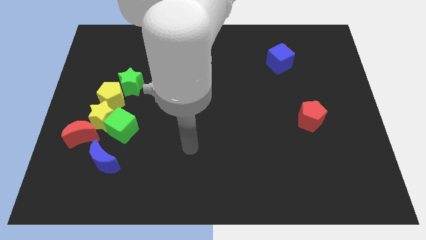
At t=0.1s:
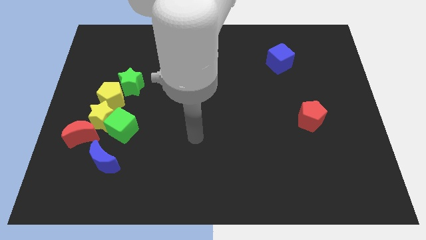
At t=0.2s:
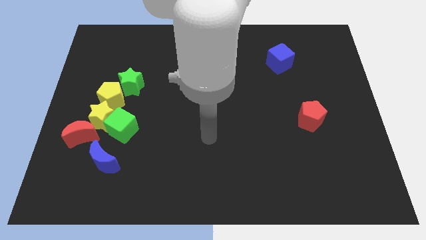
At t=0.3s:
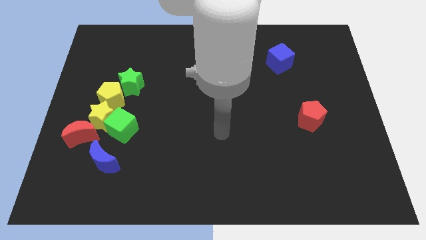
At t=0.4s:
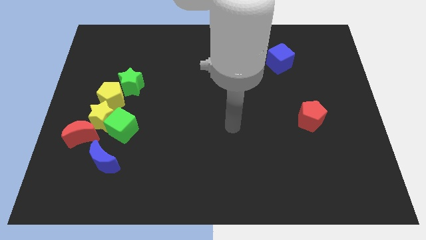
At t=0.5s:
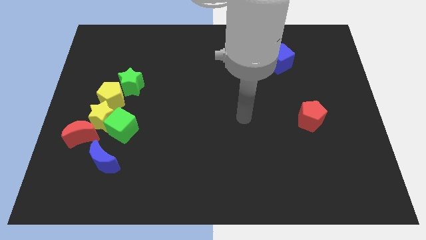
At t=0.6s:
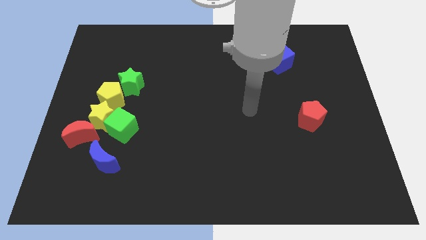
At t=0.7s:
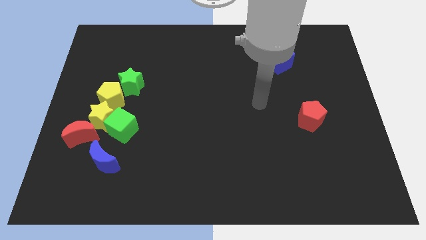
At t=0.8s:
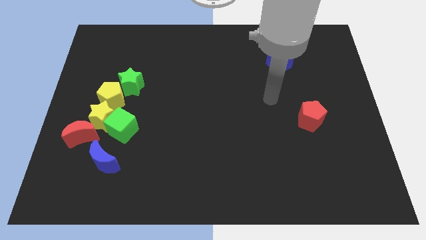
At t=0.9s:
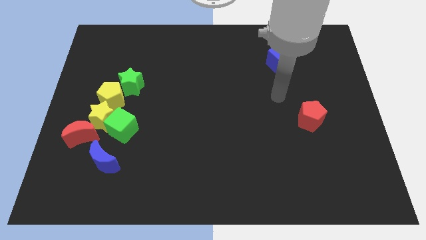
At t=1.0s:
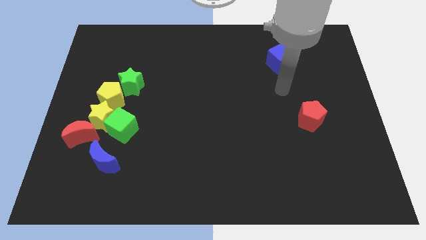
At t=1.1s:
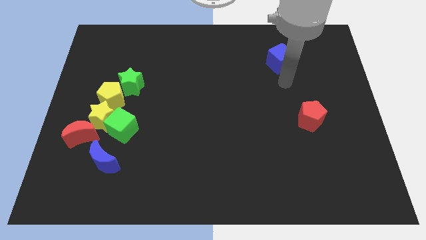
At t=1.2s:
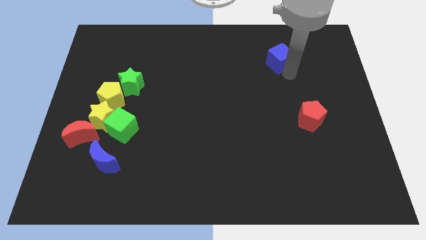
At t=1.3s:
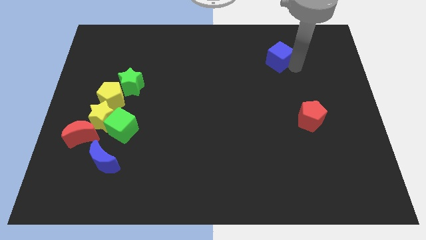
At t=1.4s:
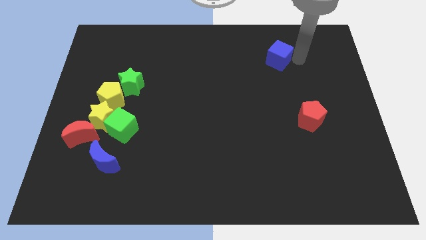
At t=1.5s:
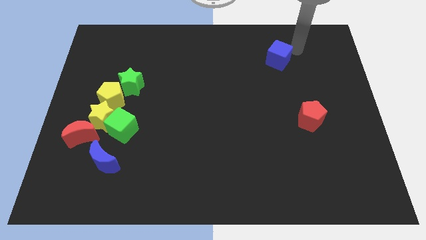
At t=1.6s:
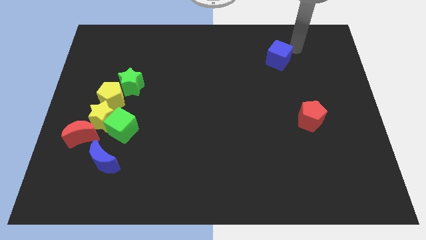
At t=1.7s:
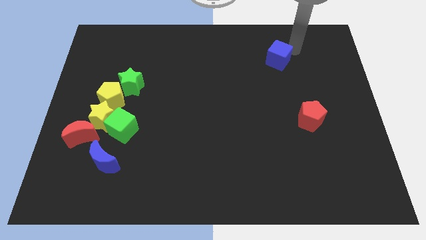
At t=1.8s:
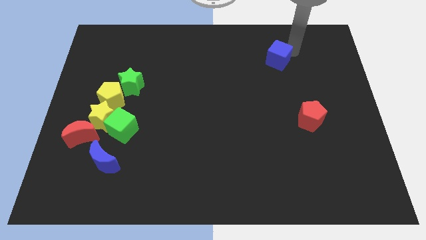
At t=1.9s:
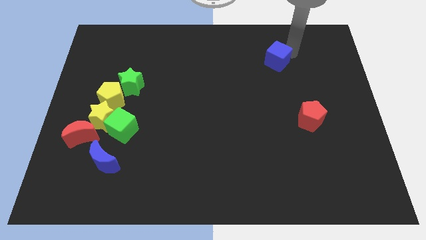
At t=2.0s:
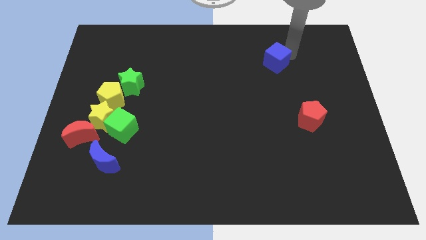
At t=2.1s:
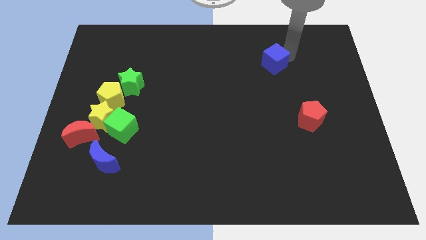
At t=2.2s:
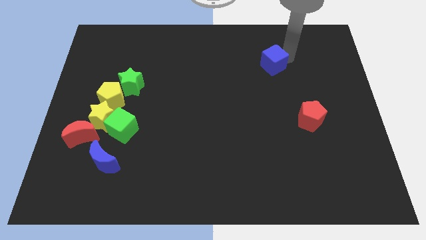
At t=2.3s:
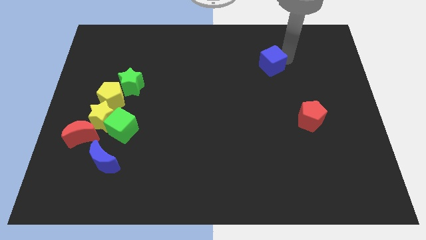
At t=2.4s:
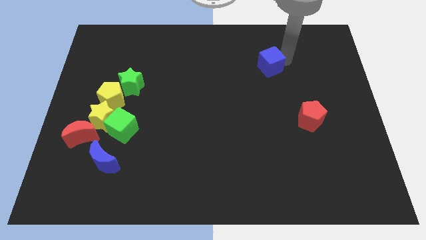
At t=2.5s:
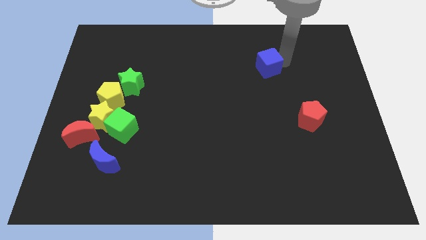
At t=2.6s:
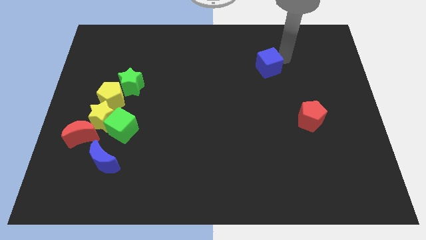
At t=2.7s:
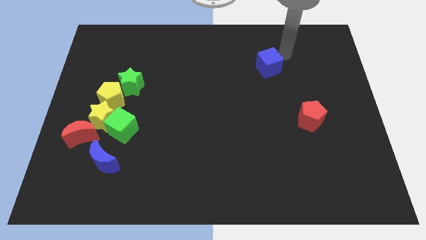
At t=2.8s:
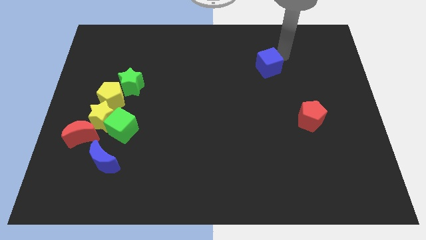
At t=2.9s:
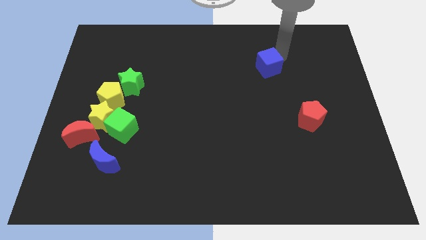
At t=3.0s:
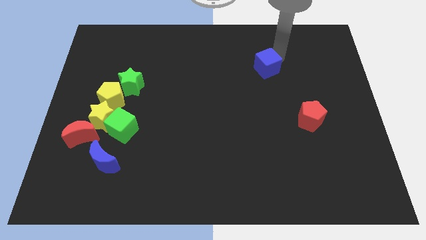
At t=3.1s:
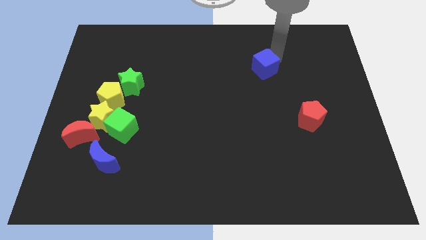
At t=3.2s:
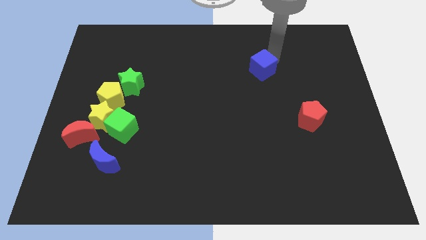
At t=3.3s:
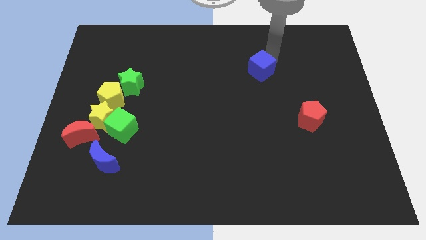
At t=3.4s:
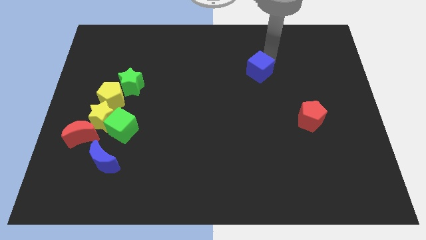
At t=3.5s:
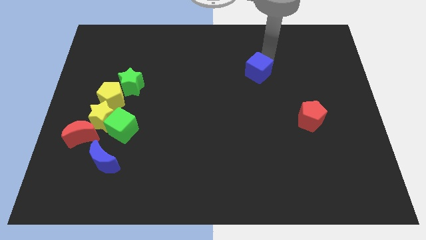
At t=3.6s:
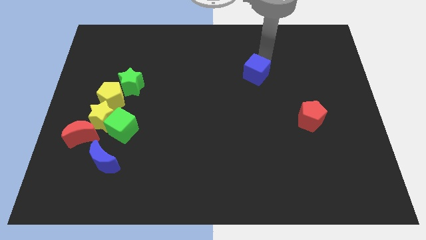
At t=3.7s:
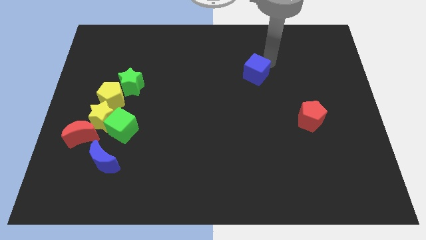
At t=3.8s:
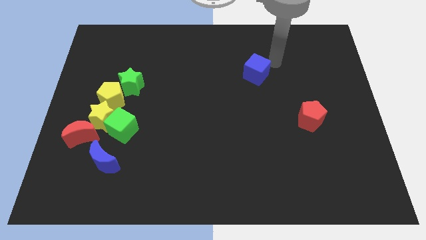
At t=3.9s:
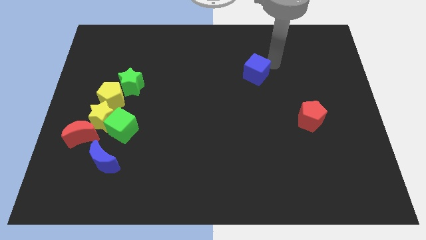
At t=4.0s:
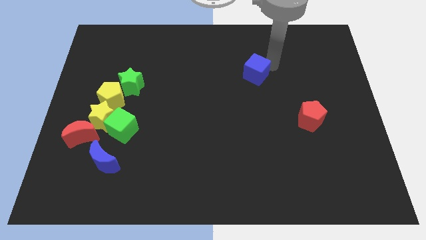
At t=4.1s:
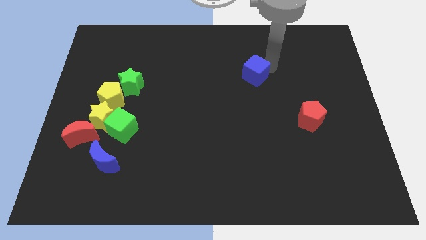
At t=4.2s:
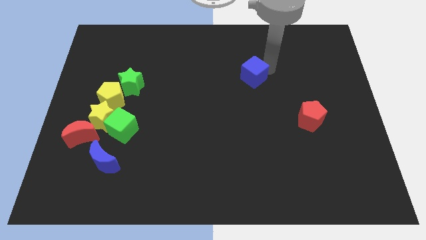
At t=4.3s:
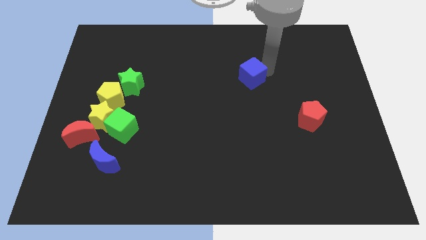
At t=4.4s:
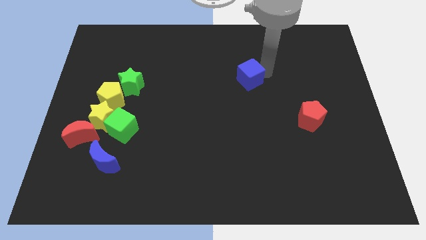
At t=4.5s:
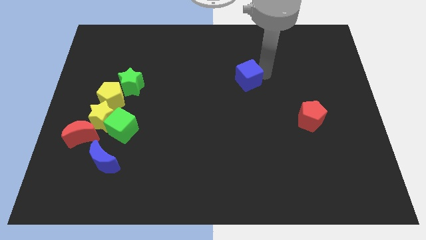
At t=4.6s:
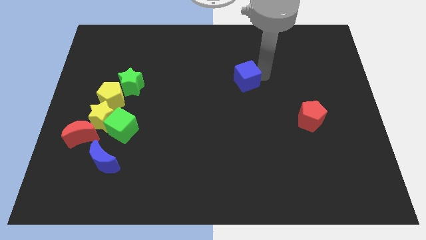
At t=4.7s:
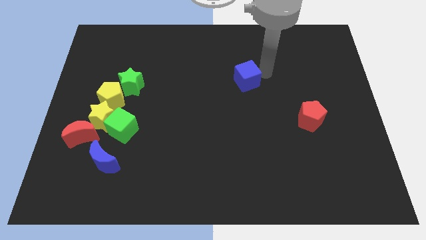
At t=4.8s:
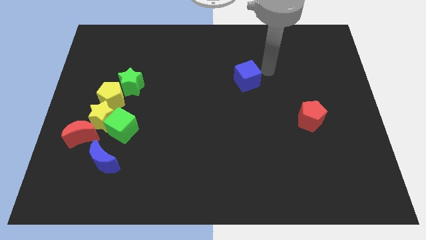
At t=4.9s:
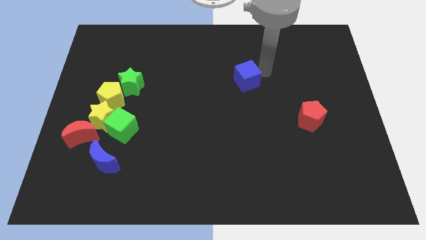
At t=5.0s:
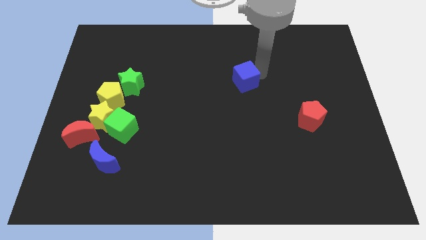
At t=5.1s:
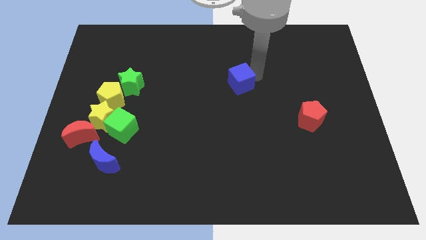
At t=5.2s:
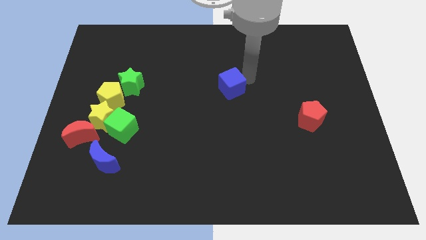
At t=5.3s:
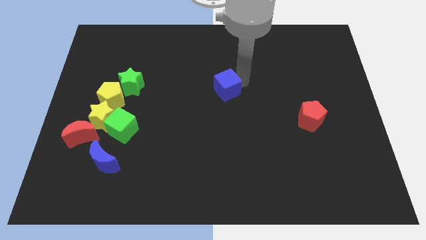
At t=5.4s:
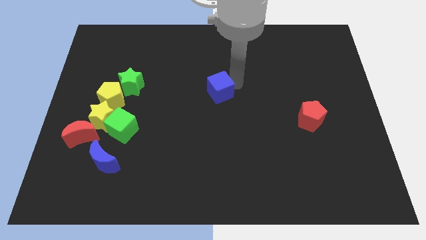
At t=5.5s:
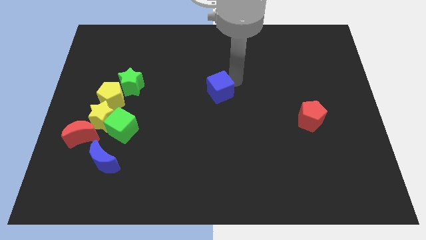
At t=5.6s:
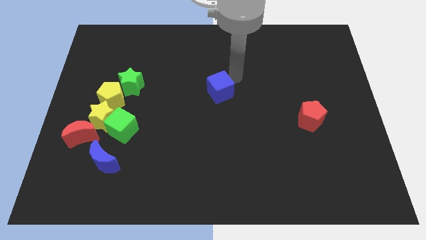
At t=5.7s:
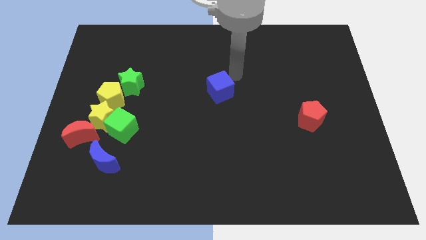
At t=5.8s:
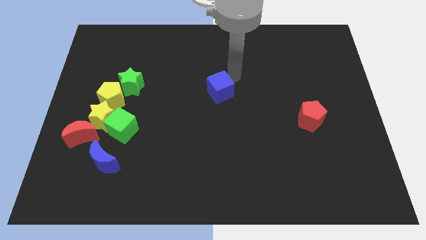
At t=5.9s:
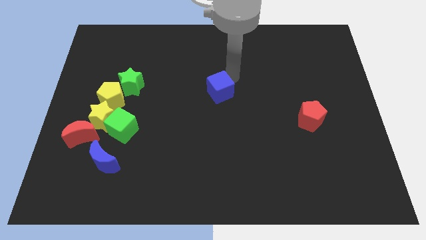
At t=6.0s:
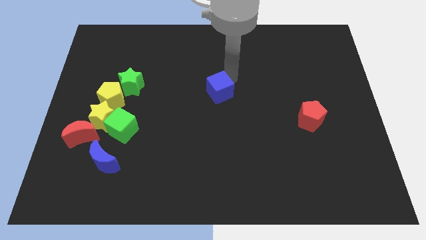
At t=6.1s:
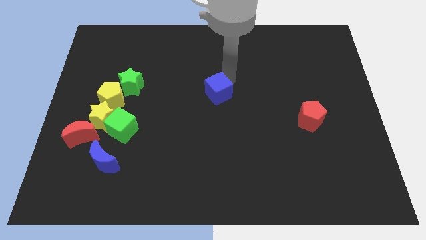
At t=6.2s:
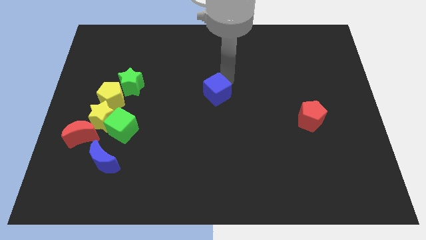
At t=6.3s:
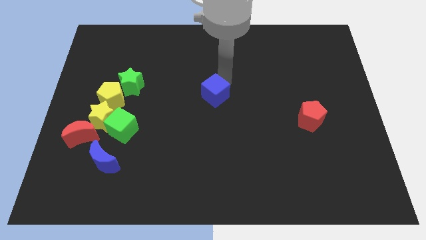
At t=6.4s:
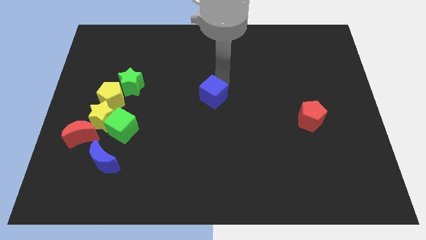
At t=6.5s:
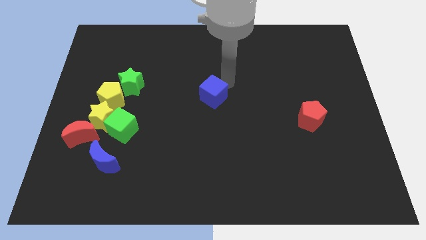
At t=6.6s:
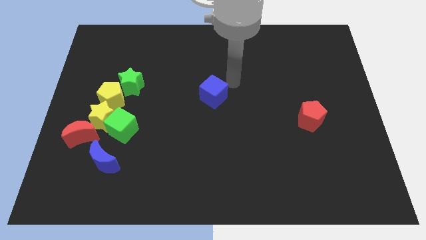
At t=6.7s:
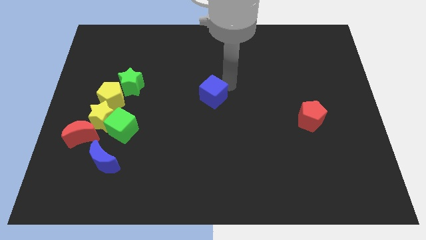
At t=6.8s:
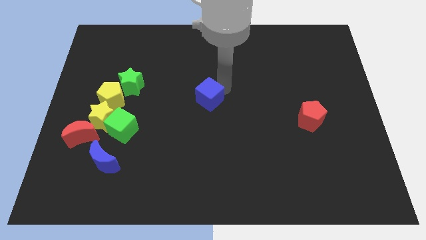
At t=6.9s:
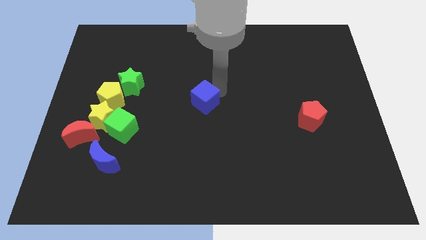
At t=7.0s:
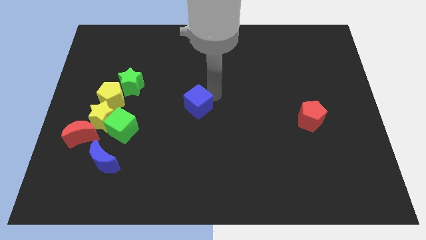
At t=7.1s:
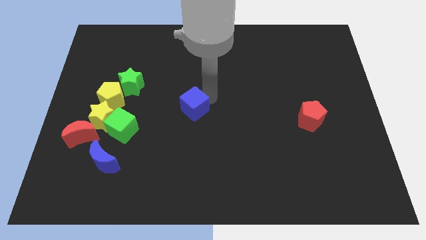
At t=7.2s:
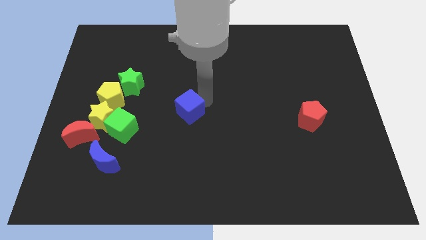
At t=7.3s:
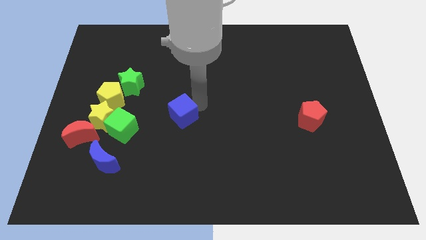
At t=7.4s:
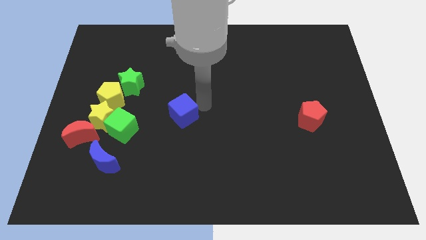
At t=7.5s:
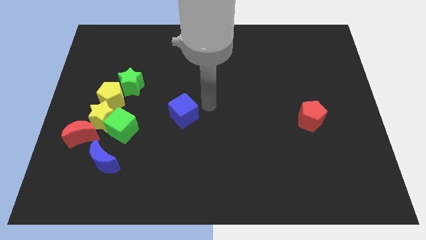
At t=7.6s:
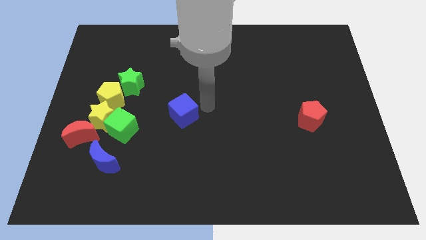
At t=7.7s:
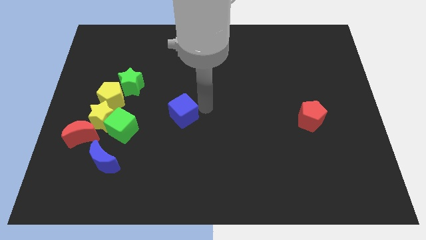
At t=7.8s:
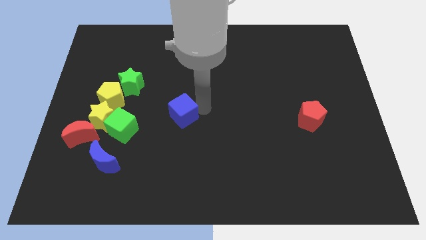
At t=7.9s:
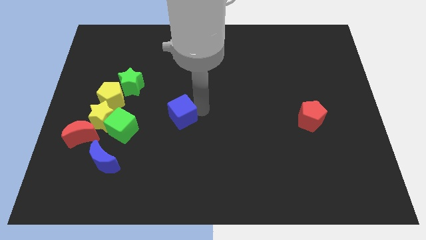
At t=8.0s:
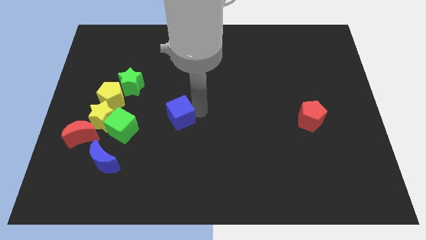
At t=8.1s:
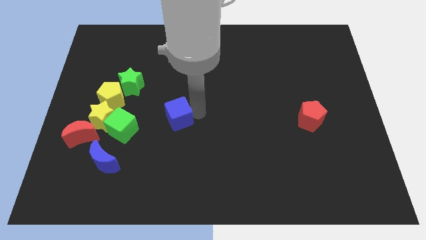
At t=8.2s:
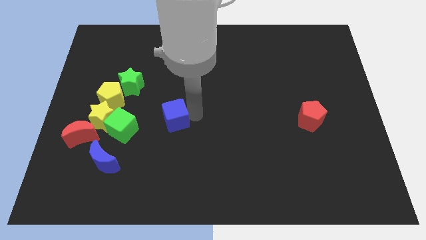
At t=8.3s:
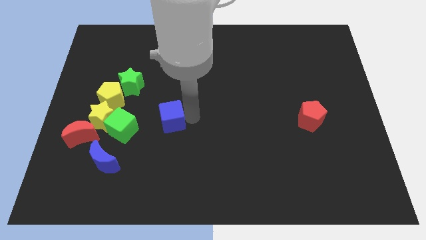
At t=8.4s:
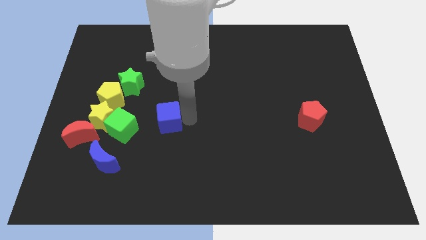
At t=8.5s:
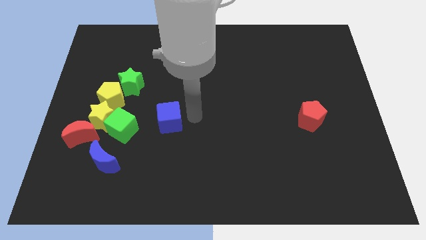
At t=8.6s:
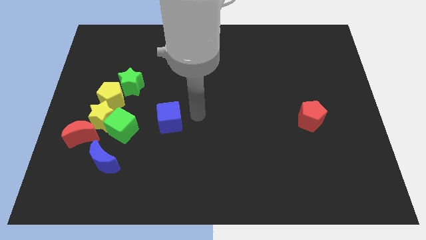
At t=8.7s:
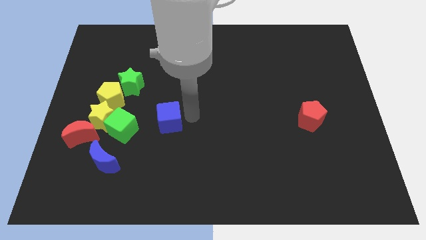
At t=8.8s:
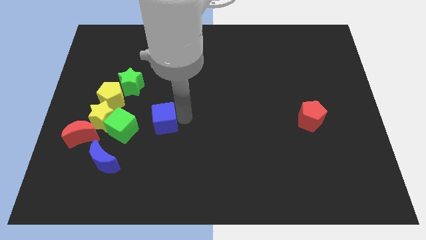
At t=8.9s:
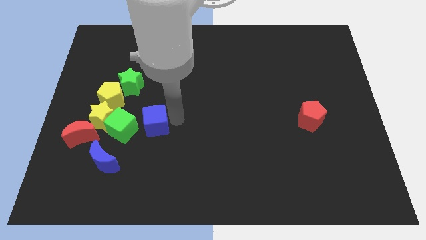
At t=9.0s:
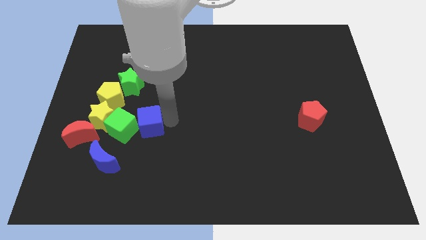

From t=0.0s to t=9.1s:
move the blue cube to the bottom right side of the yellow pentagon
